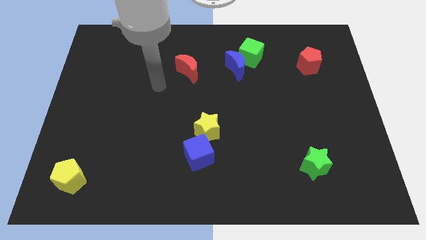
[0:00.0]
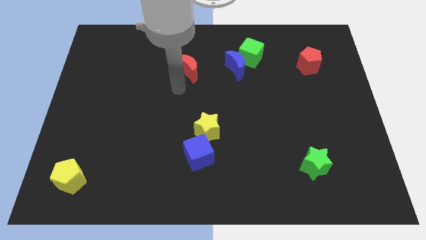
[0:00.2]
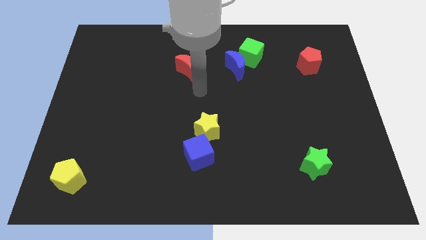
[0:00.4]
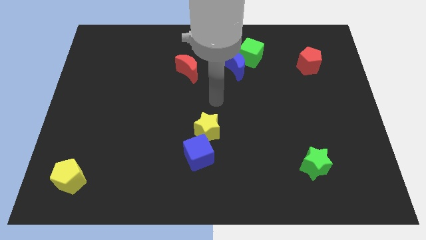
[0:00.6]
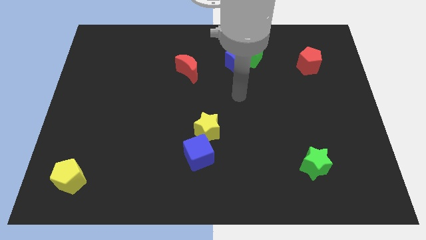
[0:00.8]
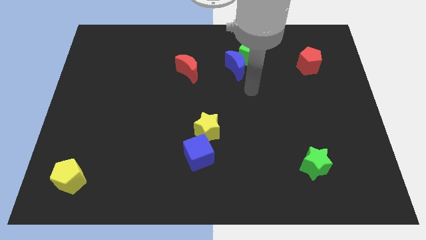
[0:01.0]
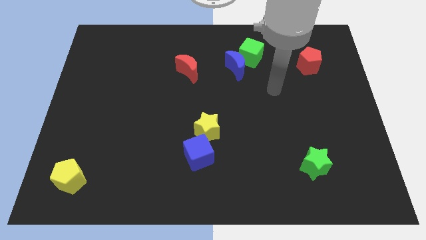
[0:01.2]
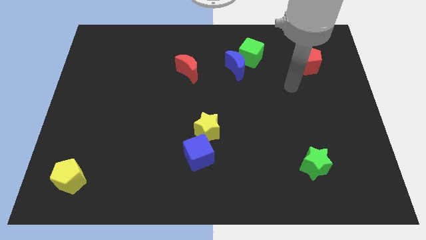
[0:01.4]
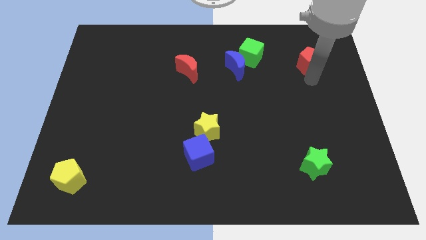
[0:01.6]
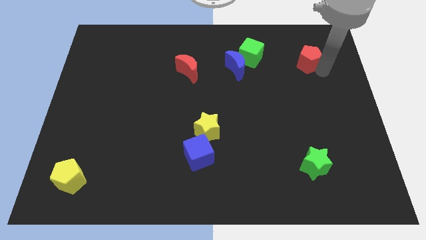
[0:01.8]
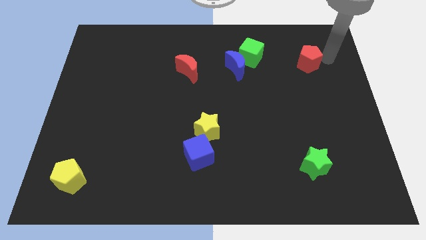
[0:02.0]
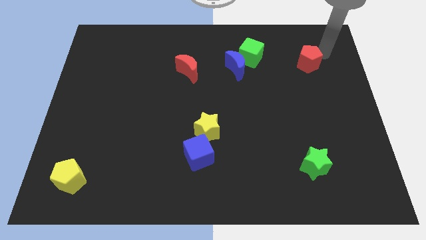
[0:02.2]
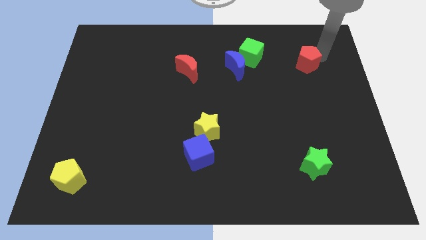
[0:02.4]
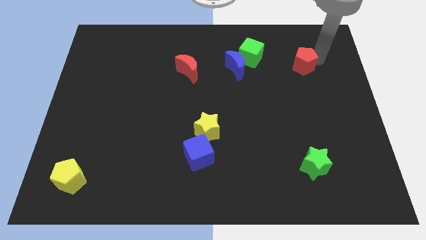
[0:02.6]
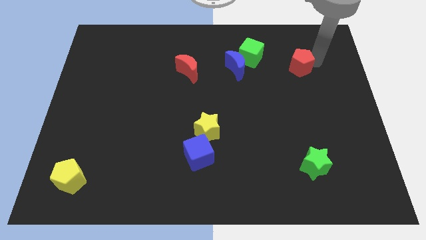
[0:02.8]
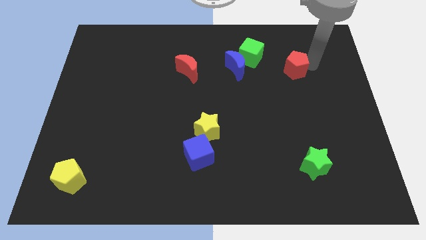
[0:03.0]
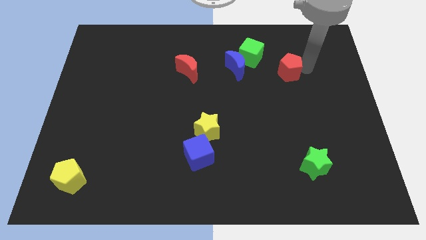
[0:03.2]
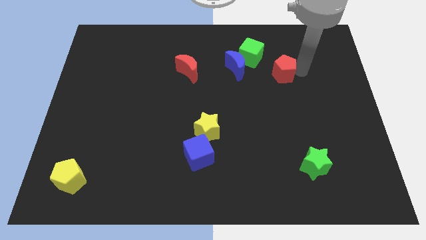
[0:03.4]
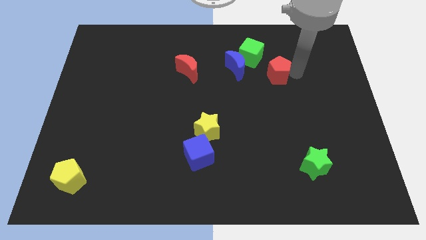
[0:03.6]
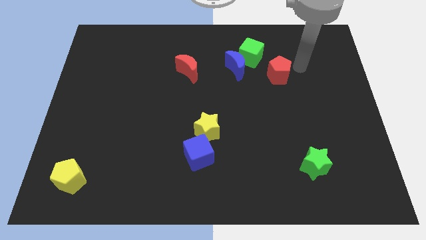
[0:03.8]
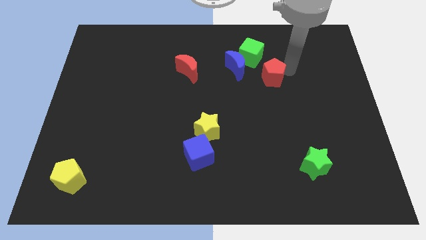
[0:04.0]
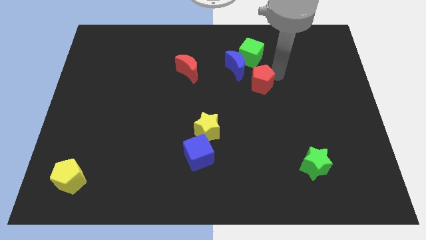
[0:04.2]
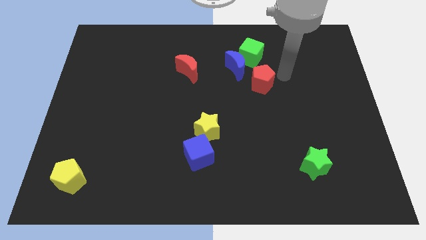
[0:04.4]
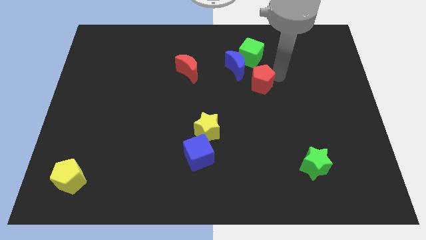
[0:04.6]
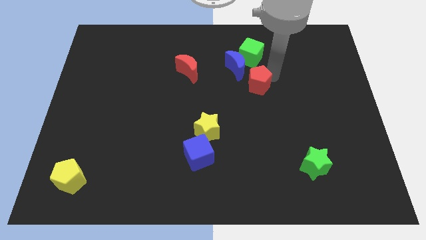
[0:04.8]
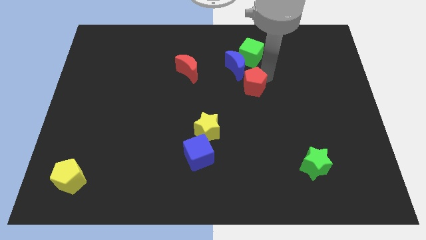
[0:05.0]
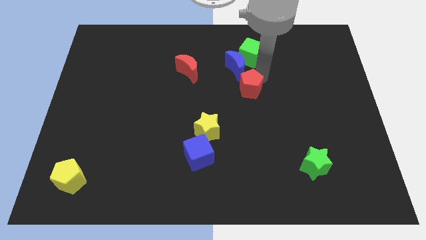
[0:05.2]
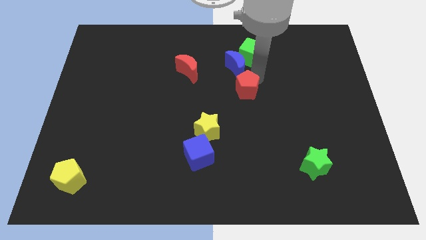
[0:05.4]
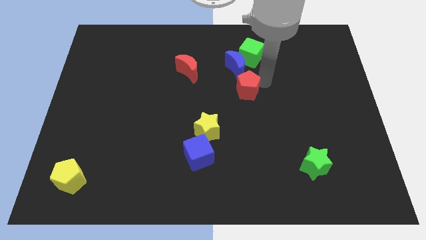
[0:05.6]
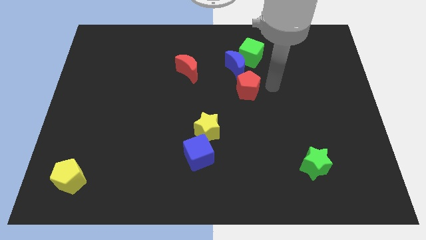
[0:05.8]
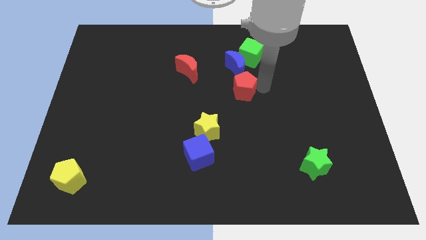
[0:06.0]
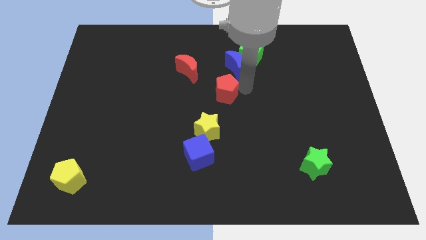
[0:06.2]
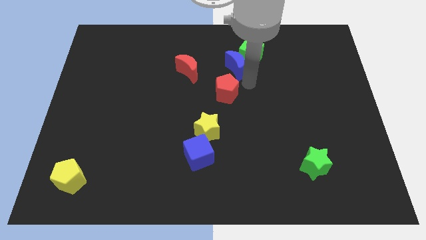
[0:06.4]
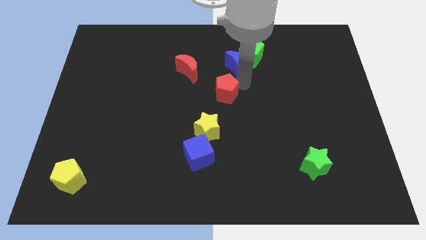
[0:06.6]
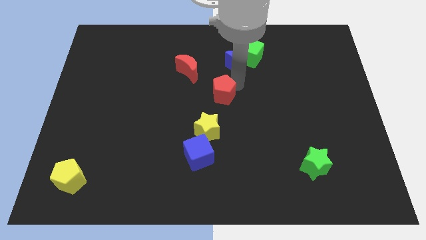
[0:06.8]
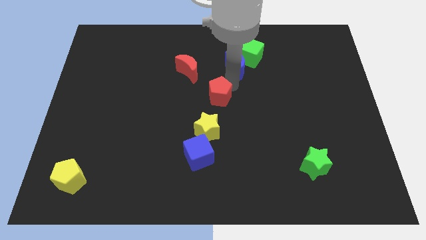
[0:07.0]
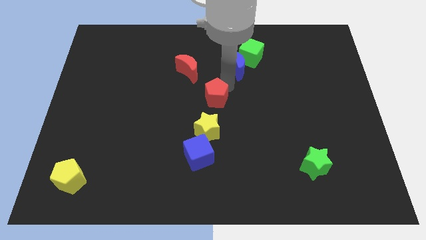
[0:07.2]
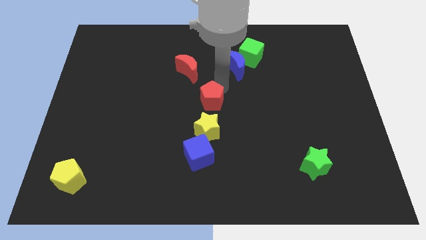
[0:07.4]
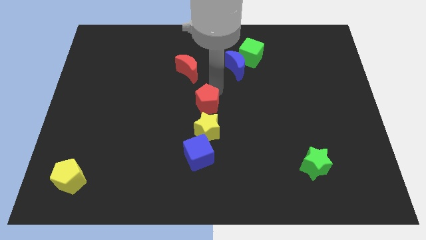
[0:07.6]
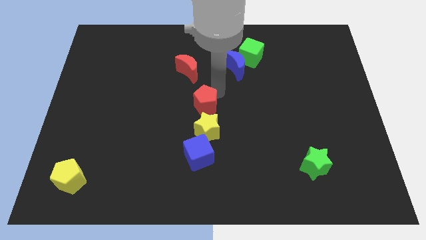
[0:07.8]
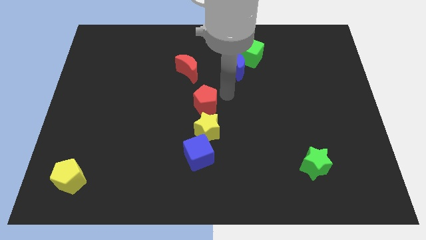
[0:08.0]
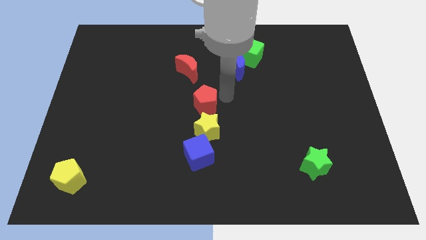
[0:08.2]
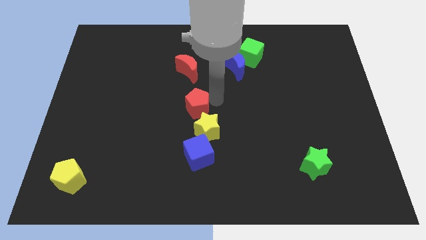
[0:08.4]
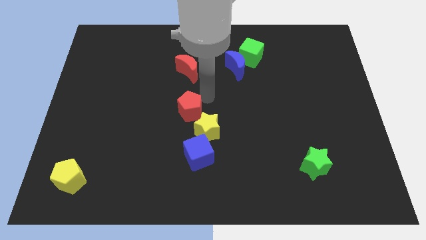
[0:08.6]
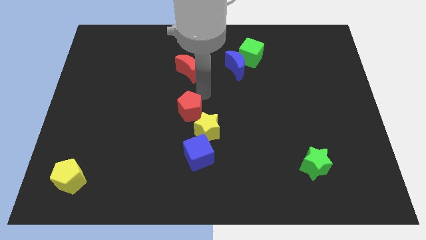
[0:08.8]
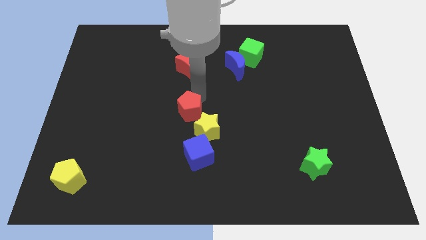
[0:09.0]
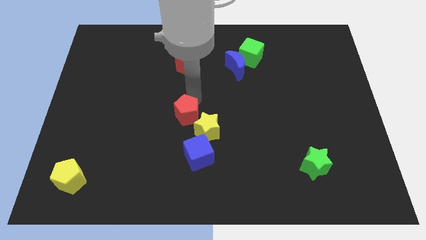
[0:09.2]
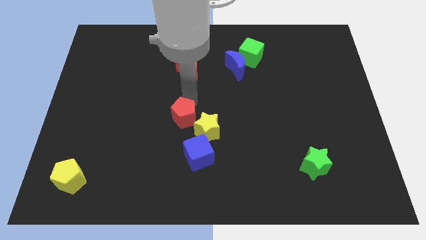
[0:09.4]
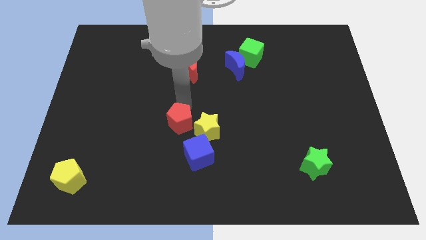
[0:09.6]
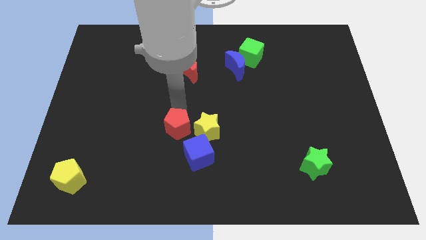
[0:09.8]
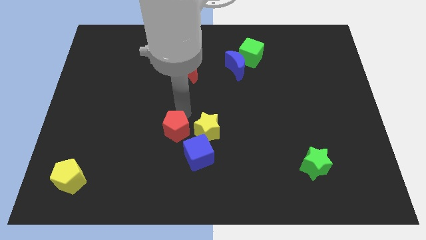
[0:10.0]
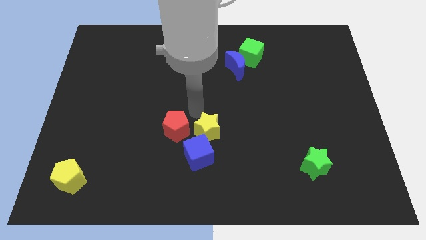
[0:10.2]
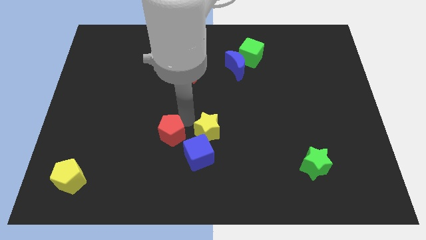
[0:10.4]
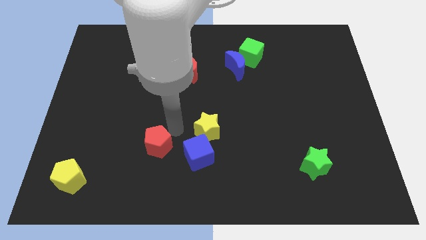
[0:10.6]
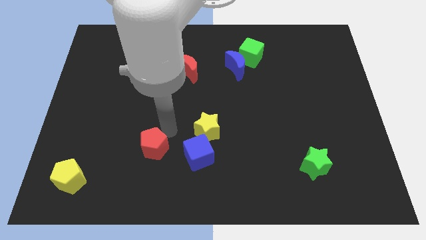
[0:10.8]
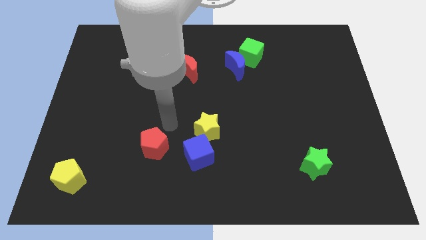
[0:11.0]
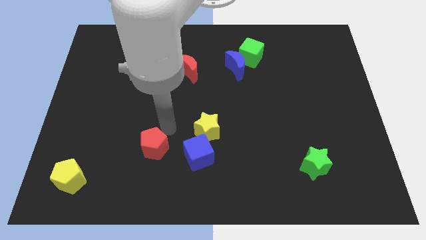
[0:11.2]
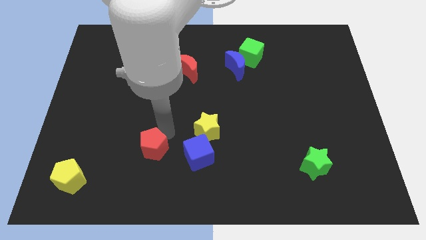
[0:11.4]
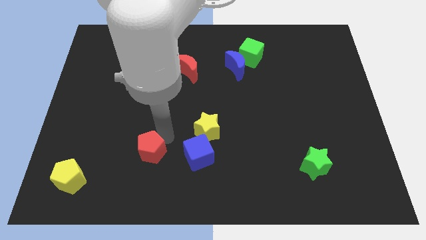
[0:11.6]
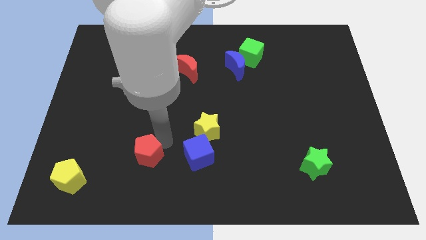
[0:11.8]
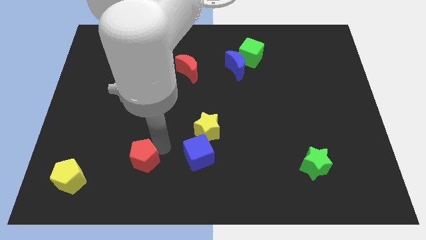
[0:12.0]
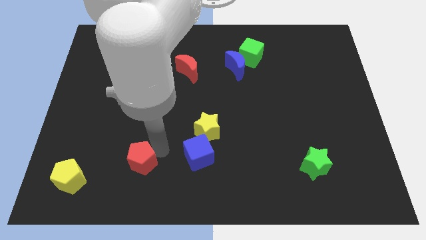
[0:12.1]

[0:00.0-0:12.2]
put the red pentagon right of the yellow pentagon
